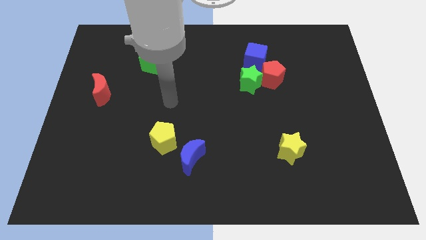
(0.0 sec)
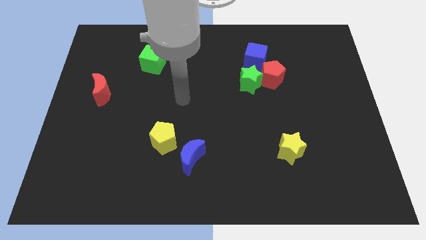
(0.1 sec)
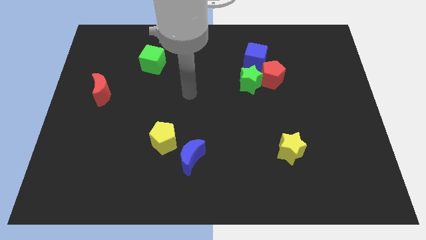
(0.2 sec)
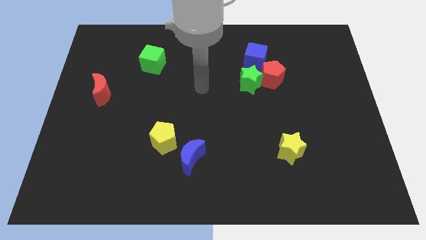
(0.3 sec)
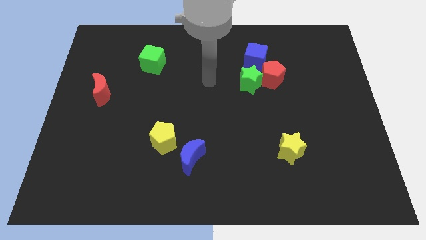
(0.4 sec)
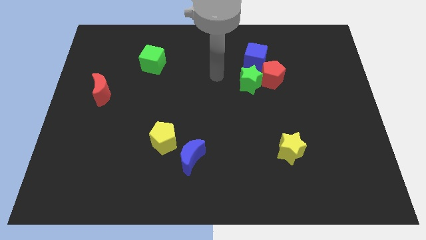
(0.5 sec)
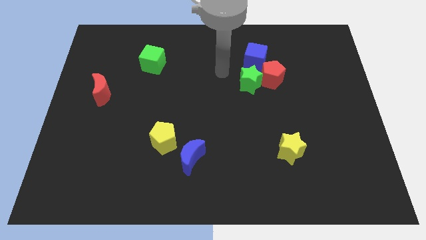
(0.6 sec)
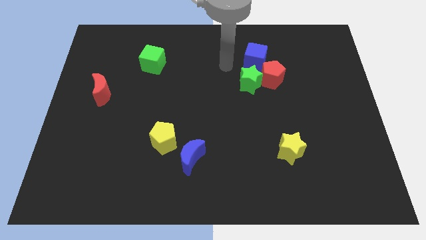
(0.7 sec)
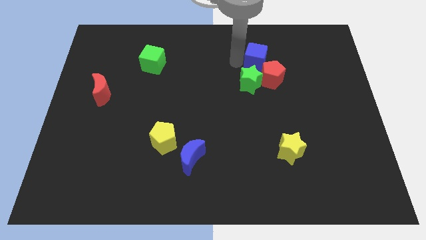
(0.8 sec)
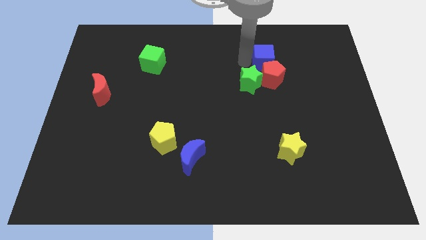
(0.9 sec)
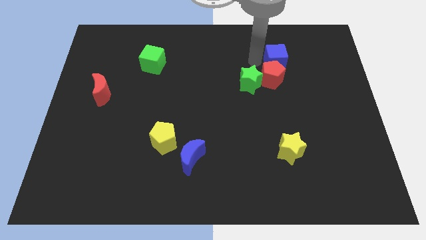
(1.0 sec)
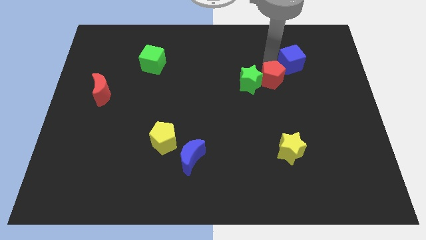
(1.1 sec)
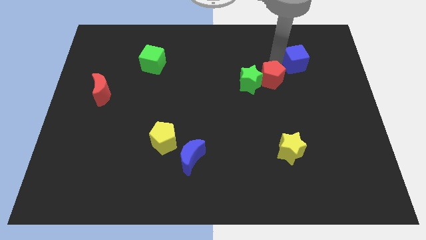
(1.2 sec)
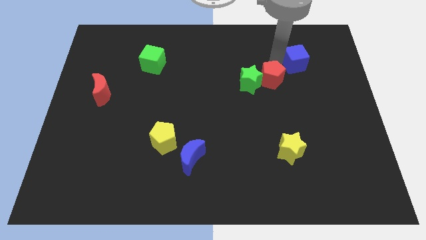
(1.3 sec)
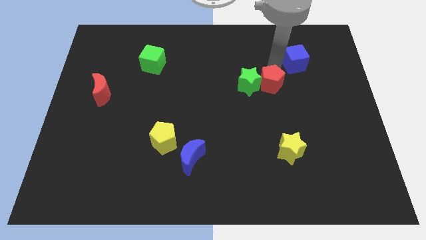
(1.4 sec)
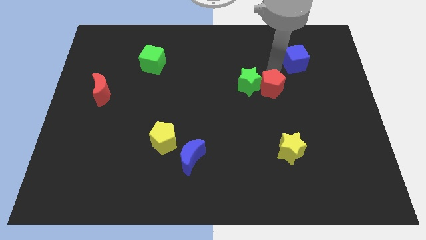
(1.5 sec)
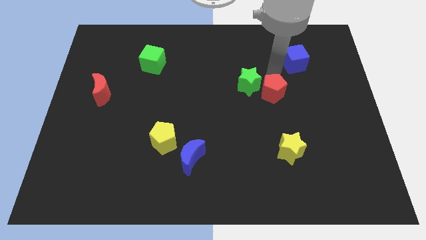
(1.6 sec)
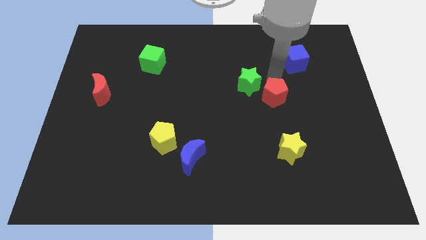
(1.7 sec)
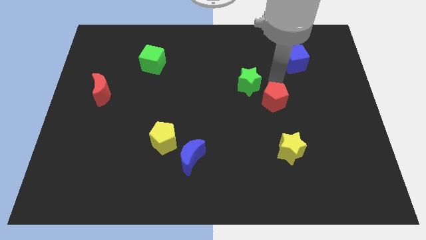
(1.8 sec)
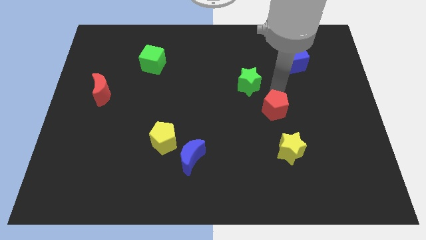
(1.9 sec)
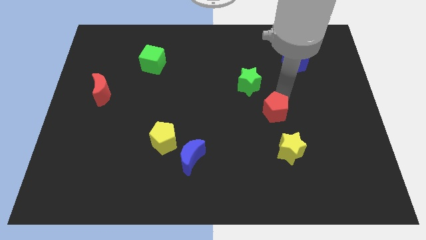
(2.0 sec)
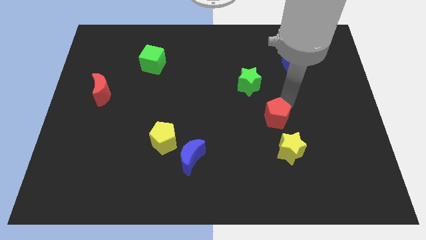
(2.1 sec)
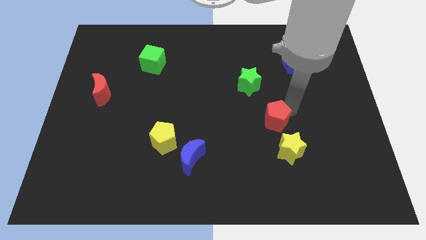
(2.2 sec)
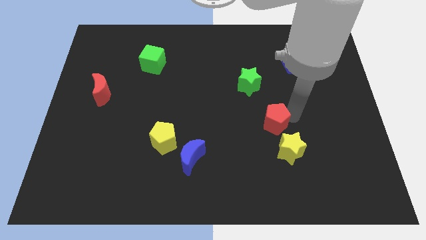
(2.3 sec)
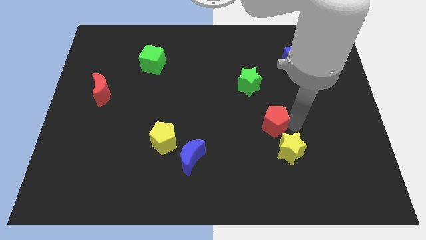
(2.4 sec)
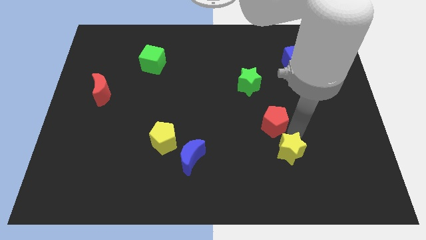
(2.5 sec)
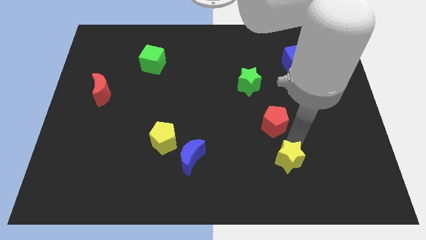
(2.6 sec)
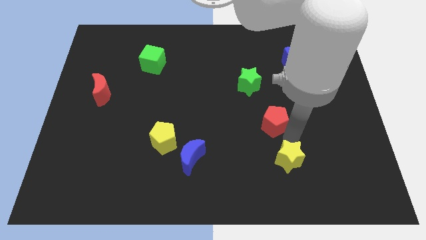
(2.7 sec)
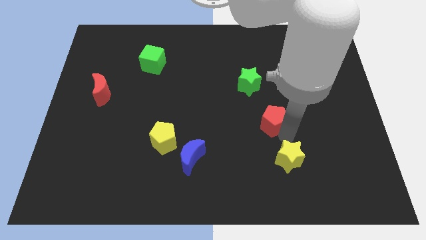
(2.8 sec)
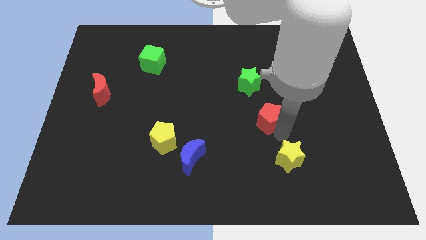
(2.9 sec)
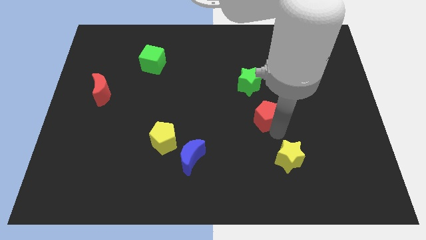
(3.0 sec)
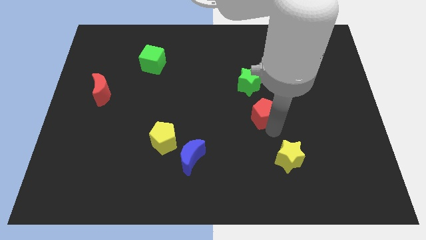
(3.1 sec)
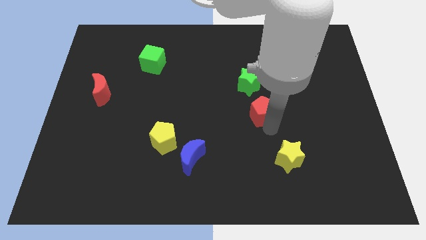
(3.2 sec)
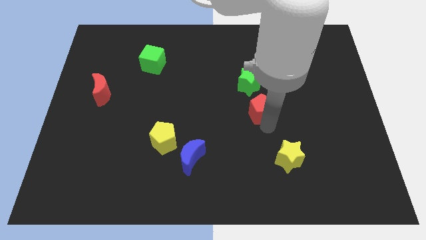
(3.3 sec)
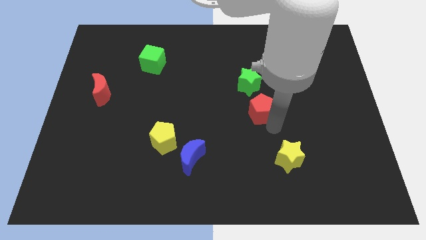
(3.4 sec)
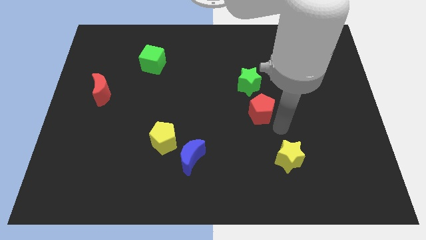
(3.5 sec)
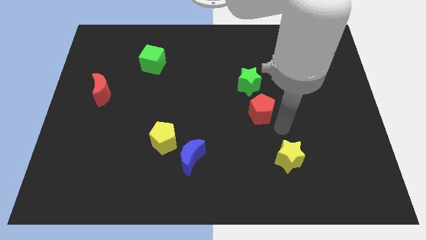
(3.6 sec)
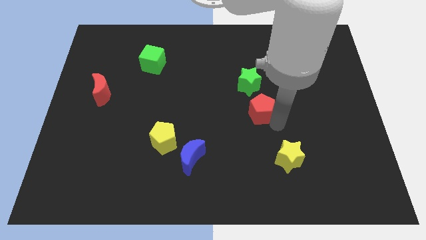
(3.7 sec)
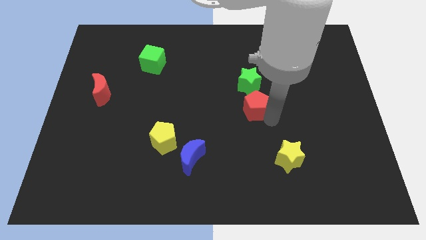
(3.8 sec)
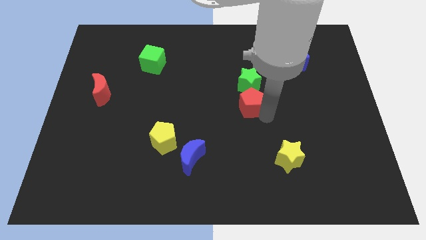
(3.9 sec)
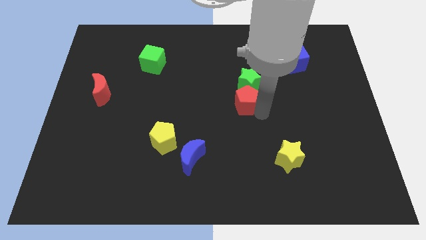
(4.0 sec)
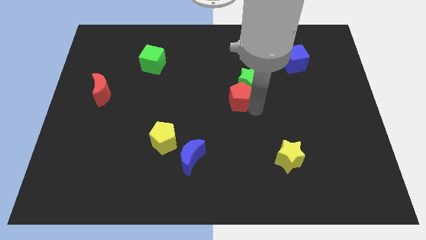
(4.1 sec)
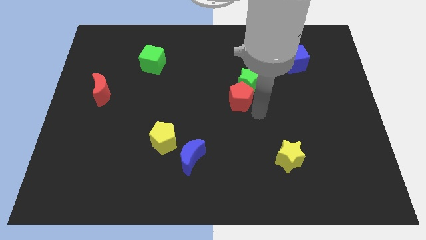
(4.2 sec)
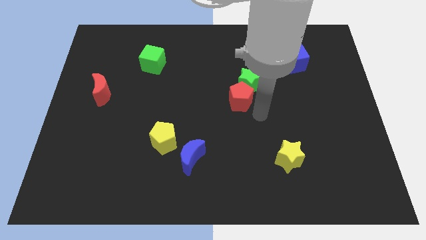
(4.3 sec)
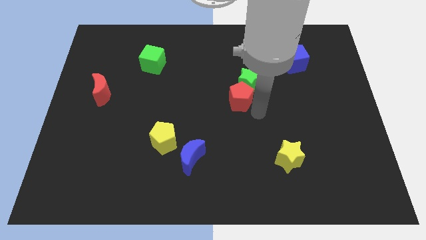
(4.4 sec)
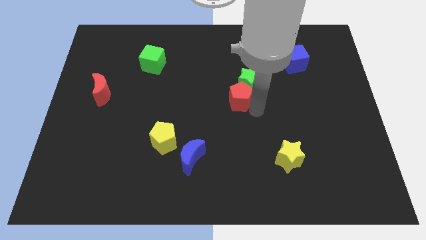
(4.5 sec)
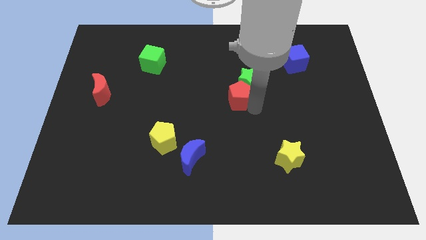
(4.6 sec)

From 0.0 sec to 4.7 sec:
slide the red pentagon left a little bit

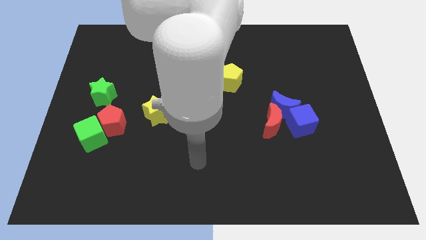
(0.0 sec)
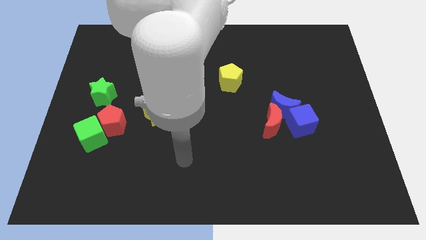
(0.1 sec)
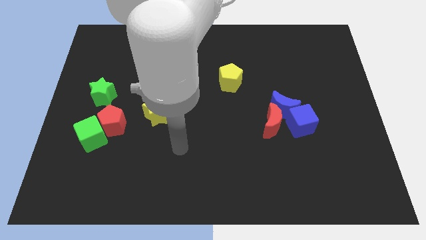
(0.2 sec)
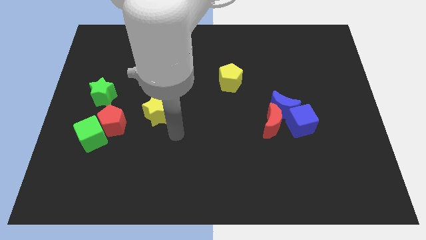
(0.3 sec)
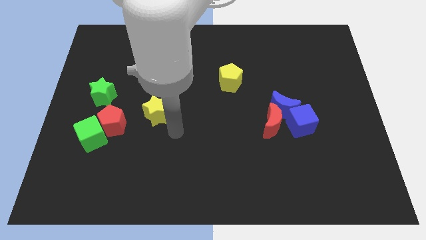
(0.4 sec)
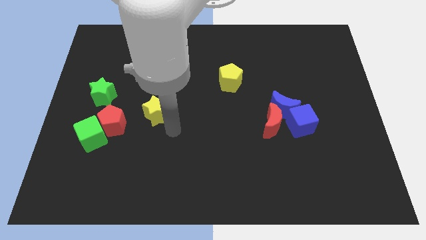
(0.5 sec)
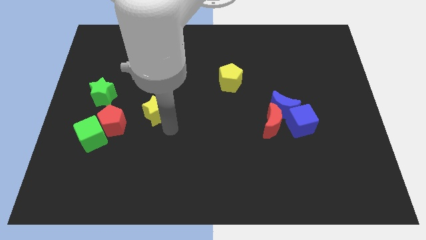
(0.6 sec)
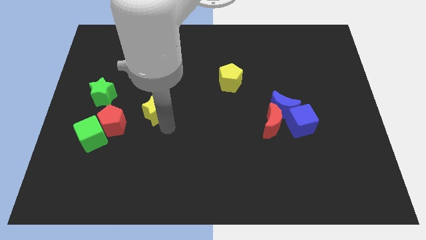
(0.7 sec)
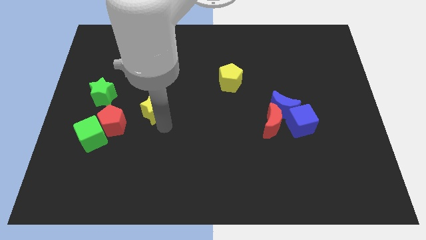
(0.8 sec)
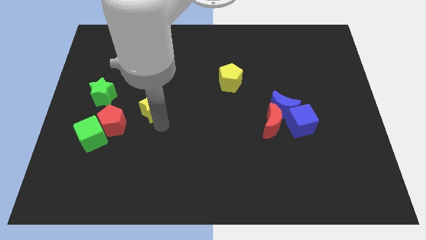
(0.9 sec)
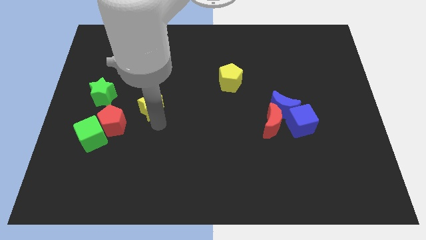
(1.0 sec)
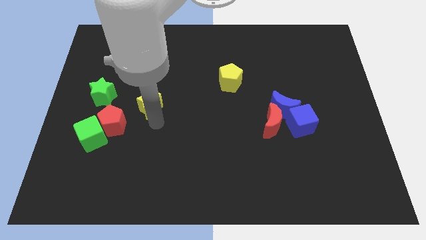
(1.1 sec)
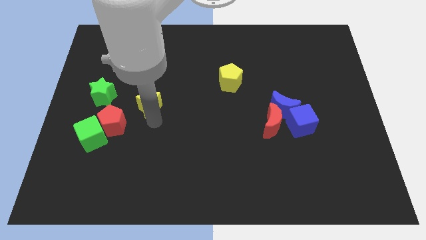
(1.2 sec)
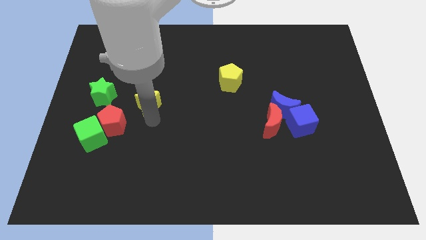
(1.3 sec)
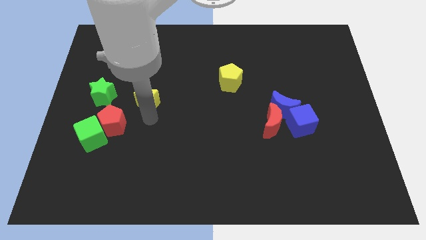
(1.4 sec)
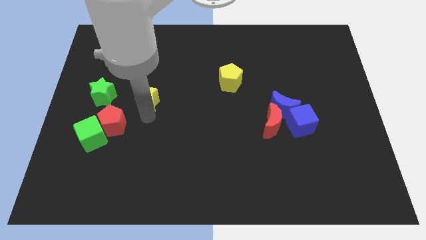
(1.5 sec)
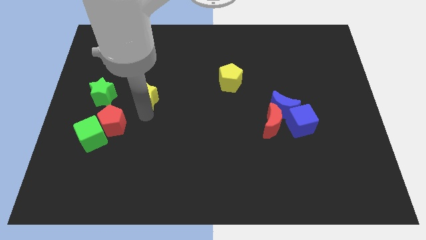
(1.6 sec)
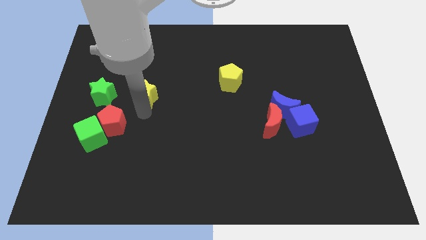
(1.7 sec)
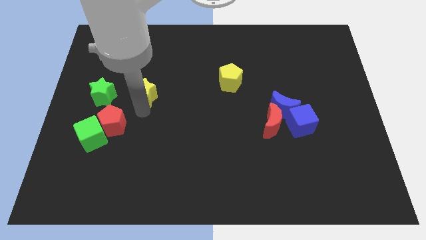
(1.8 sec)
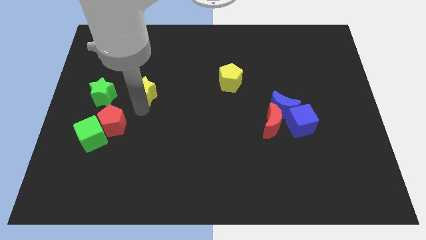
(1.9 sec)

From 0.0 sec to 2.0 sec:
slightly slide the yellow star upwards and then to the left

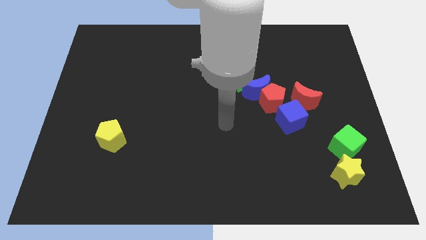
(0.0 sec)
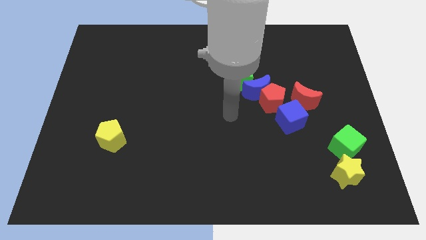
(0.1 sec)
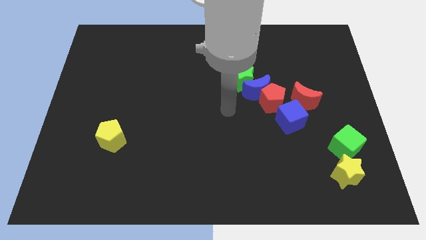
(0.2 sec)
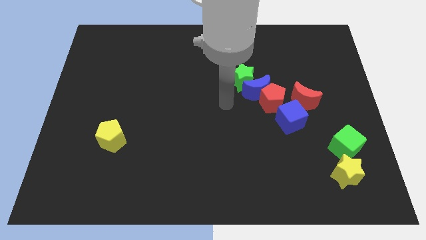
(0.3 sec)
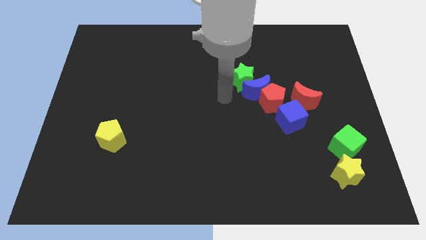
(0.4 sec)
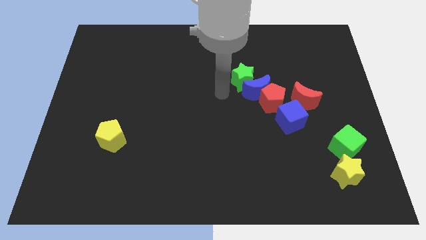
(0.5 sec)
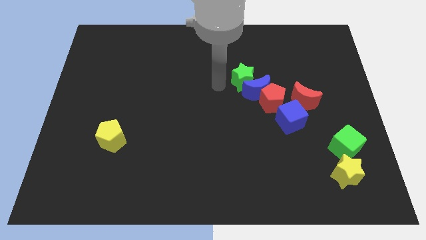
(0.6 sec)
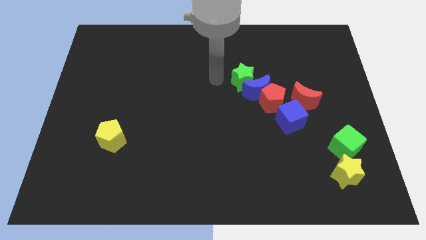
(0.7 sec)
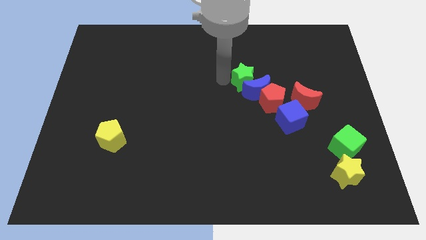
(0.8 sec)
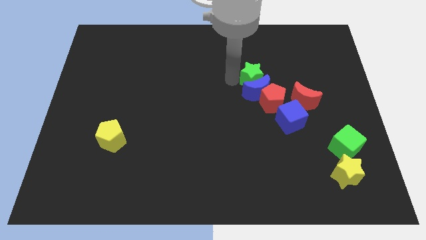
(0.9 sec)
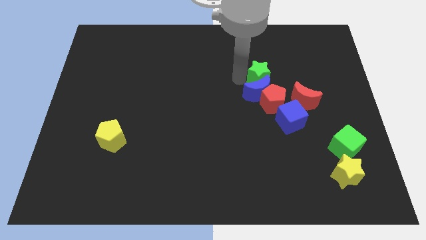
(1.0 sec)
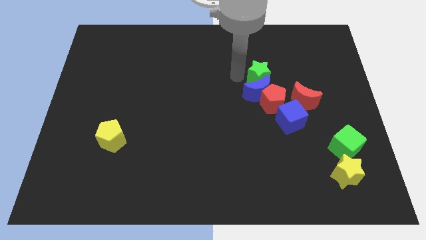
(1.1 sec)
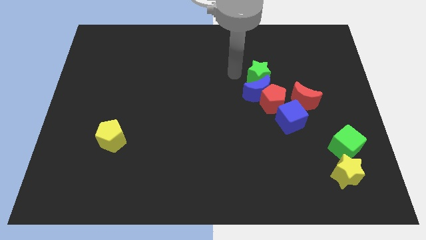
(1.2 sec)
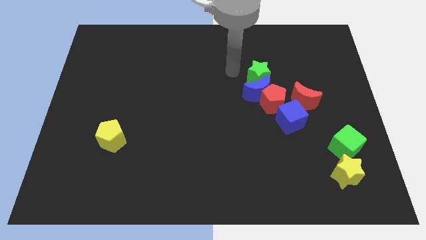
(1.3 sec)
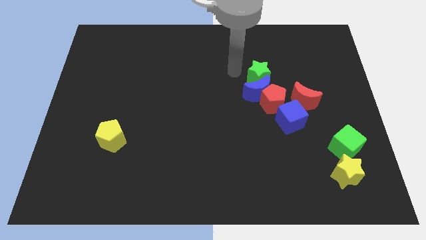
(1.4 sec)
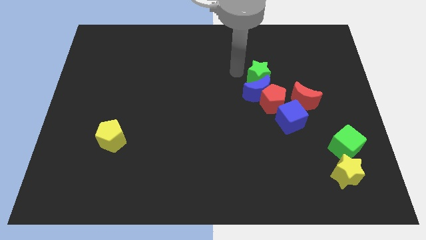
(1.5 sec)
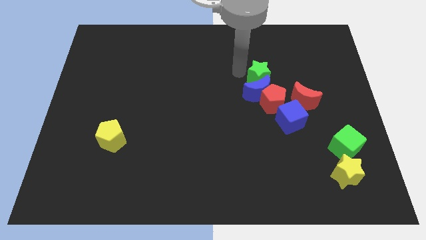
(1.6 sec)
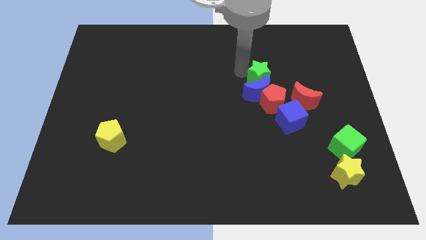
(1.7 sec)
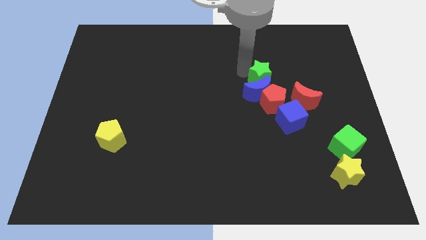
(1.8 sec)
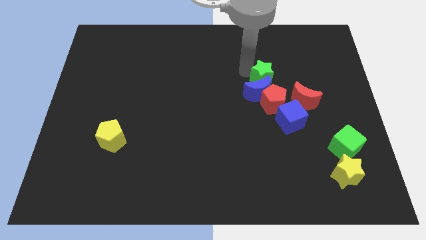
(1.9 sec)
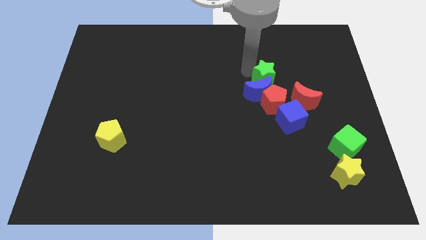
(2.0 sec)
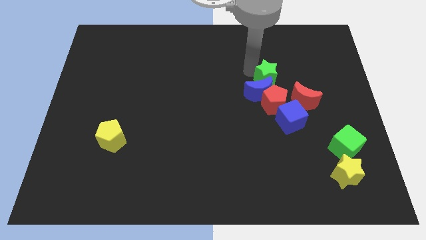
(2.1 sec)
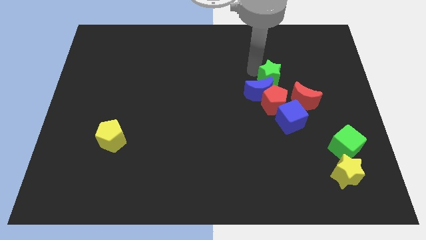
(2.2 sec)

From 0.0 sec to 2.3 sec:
slide the green star to the right slightly
